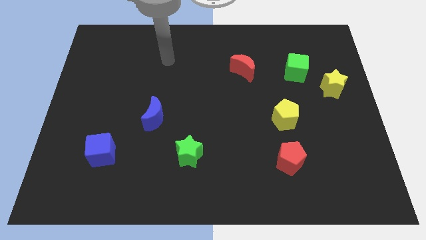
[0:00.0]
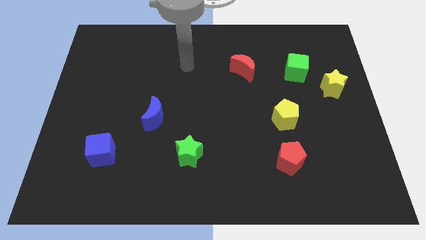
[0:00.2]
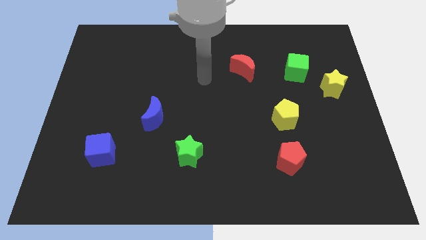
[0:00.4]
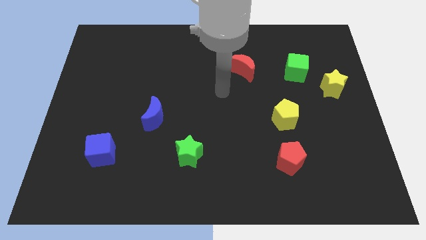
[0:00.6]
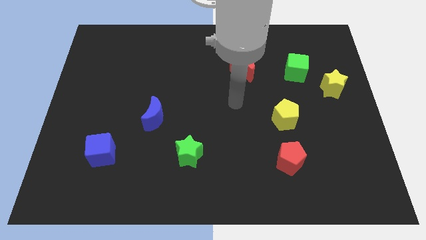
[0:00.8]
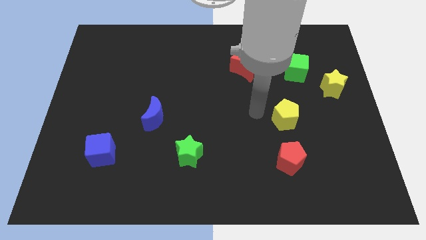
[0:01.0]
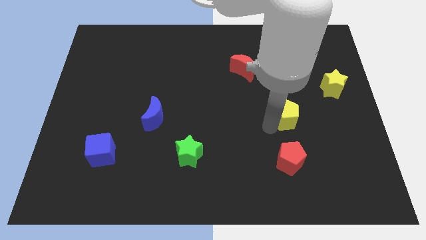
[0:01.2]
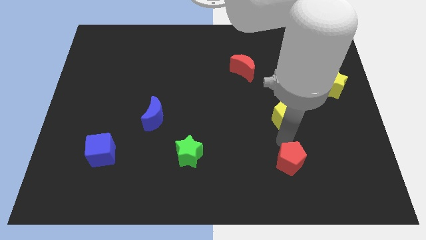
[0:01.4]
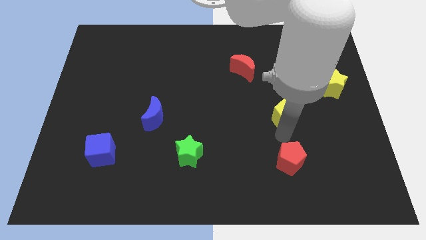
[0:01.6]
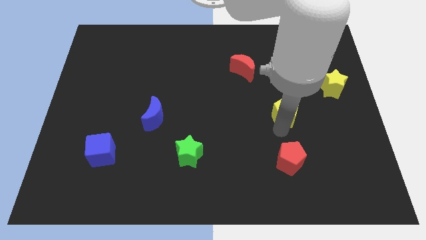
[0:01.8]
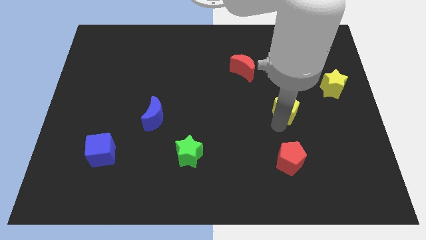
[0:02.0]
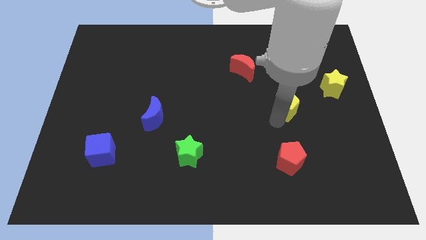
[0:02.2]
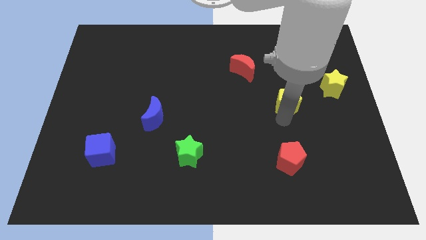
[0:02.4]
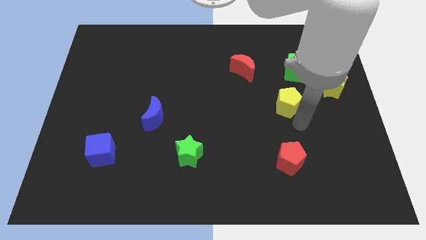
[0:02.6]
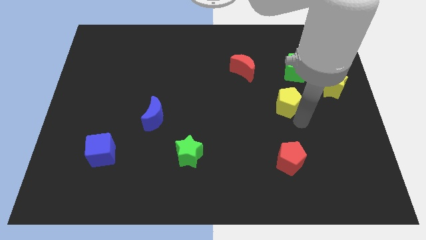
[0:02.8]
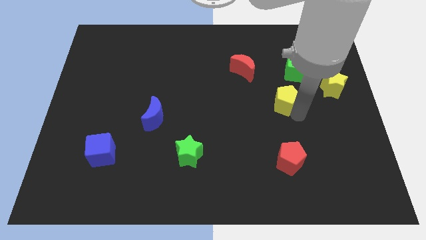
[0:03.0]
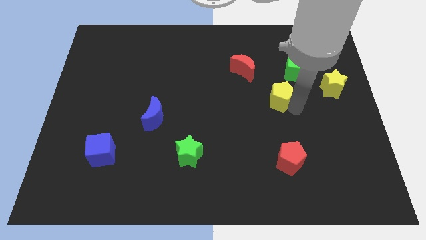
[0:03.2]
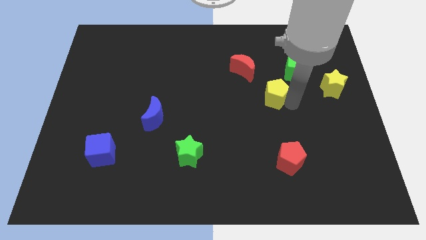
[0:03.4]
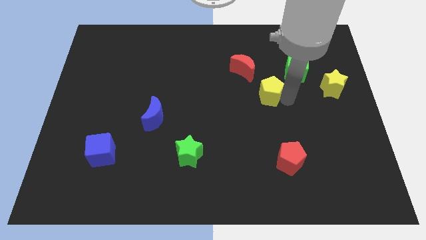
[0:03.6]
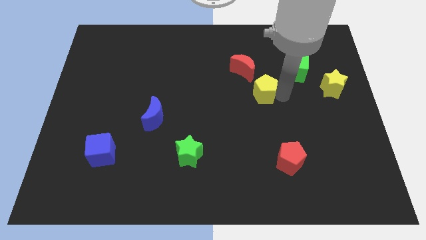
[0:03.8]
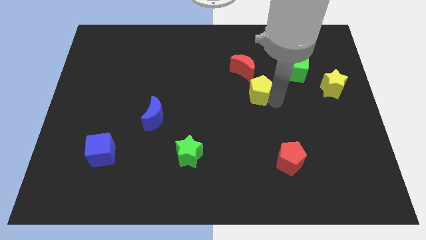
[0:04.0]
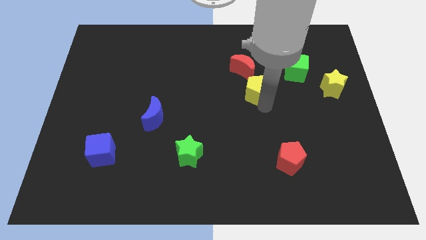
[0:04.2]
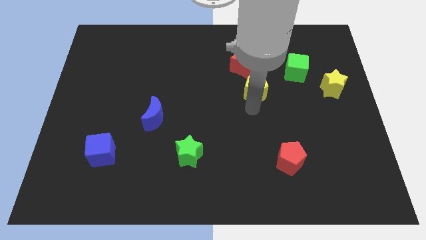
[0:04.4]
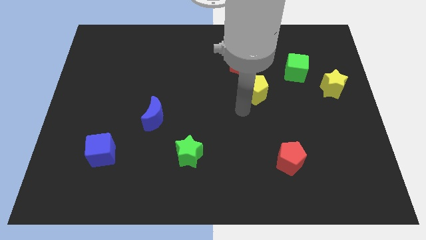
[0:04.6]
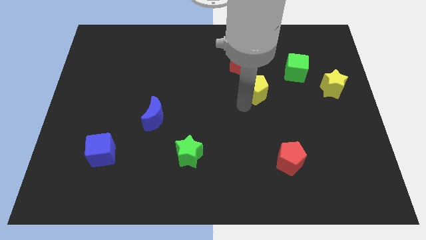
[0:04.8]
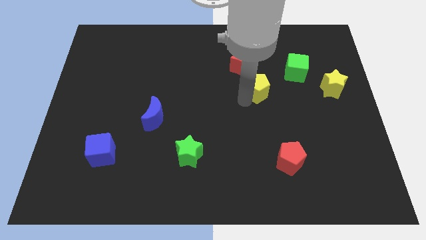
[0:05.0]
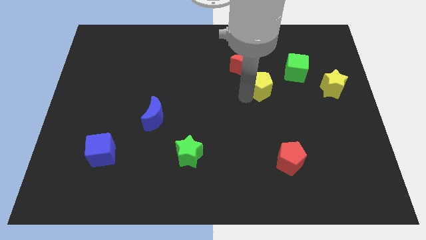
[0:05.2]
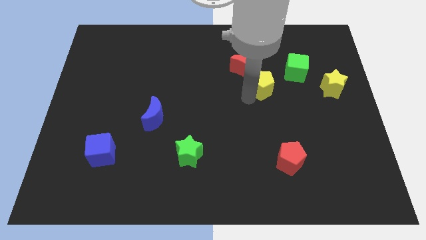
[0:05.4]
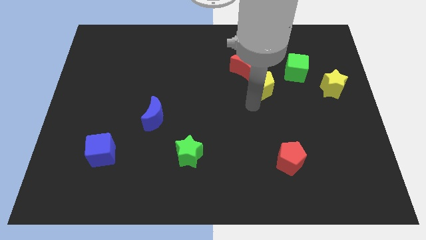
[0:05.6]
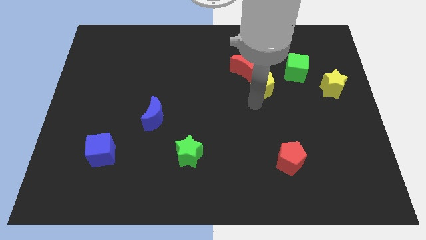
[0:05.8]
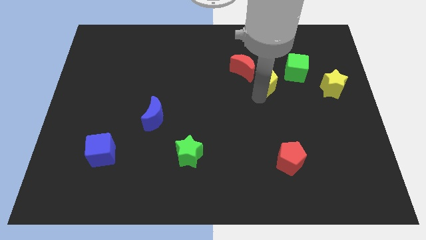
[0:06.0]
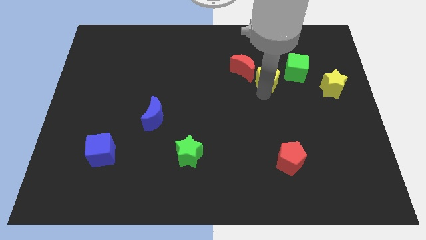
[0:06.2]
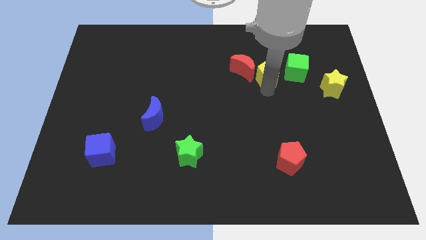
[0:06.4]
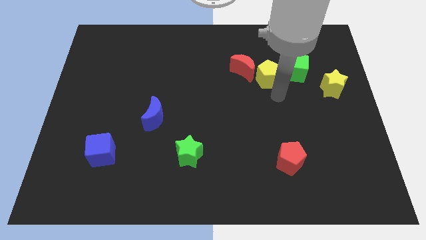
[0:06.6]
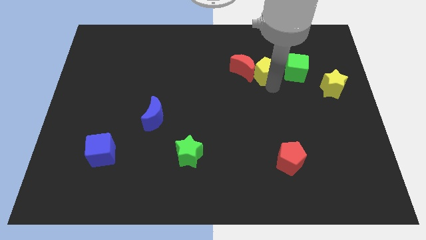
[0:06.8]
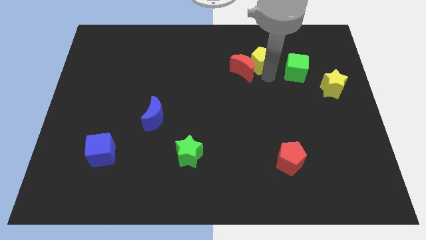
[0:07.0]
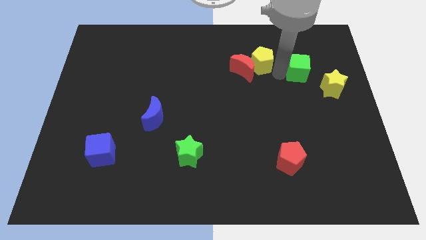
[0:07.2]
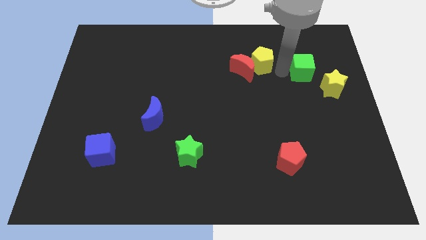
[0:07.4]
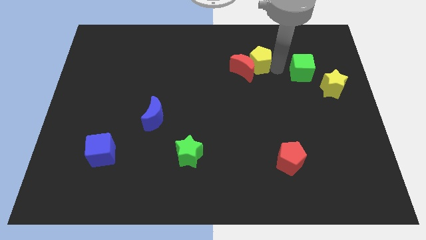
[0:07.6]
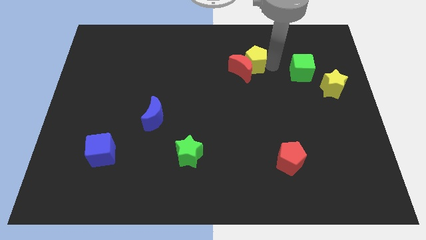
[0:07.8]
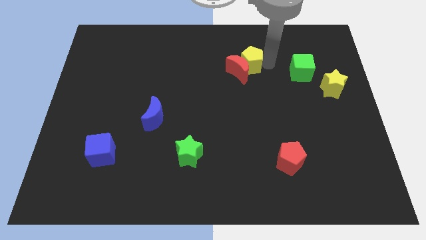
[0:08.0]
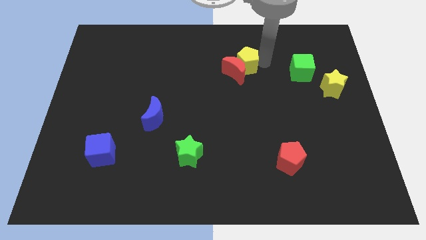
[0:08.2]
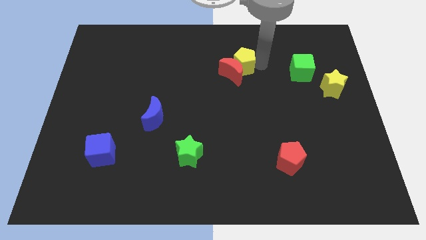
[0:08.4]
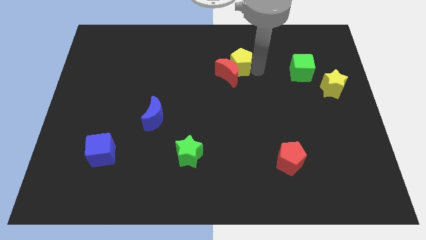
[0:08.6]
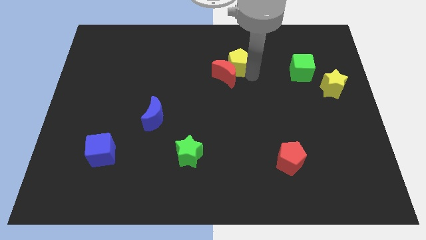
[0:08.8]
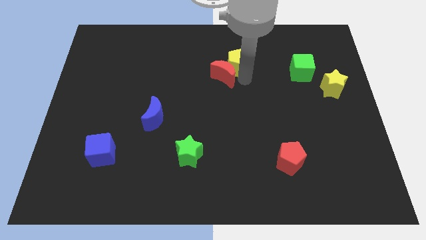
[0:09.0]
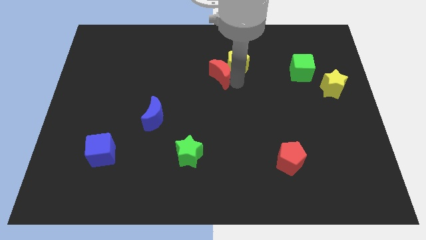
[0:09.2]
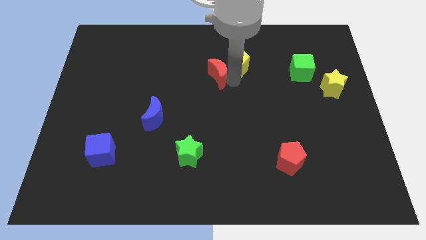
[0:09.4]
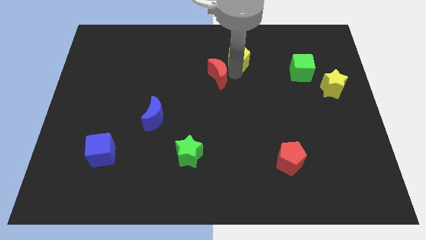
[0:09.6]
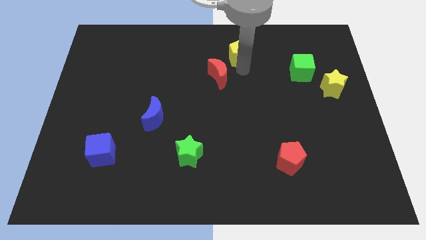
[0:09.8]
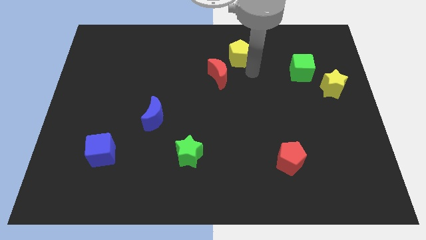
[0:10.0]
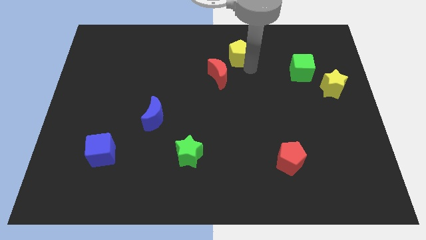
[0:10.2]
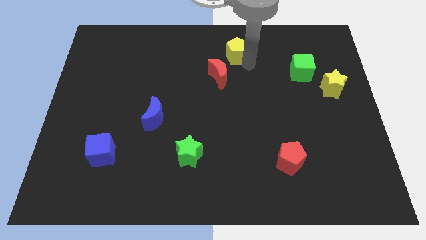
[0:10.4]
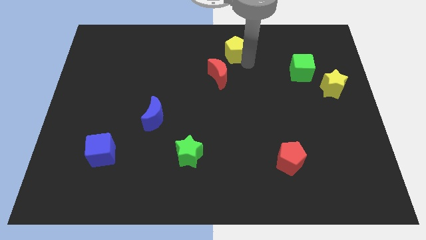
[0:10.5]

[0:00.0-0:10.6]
put the yellow pentagon to the top side

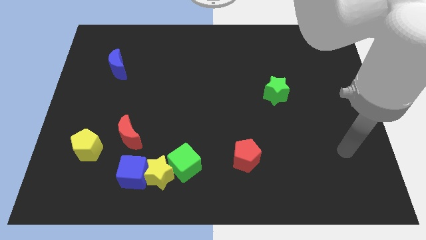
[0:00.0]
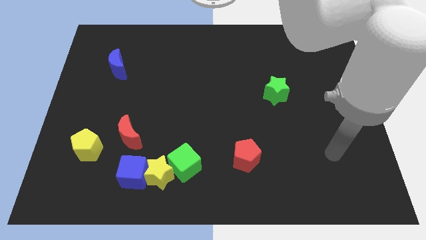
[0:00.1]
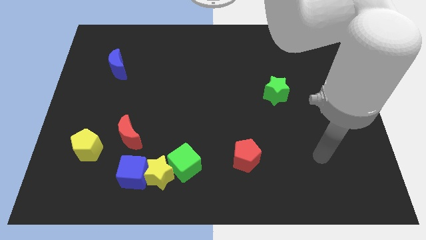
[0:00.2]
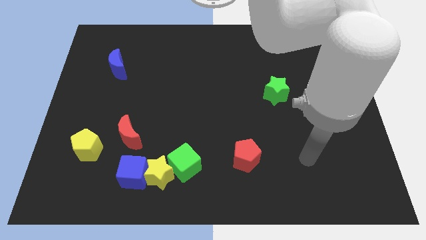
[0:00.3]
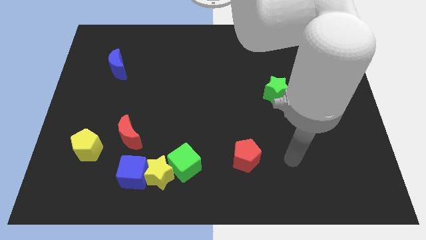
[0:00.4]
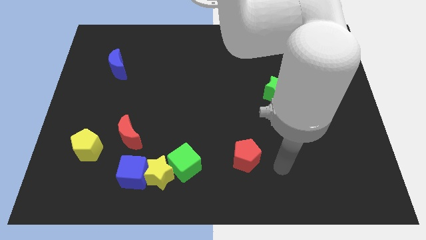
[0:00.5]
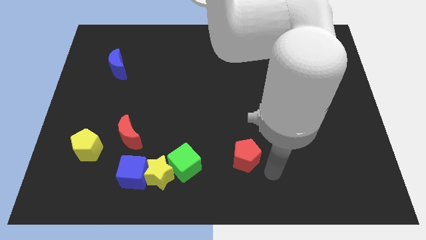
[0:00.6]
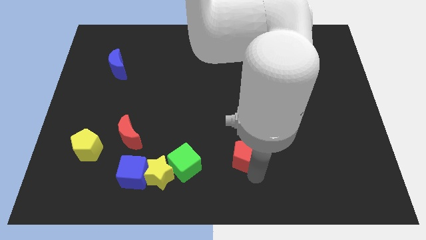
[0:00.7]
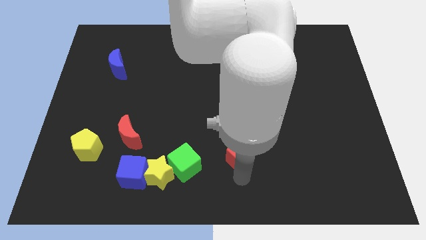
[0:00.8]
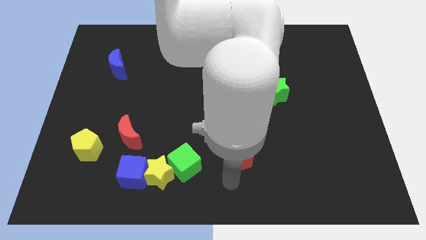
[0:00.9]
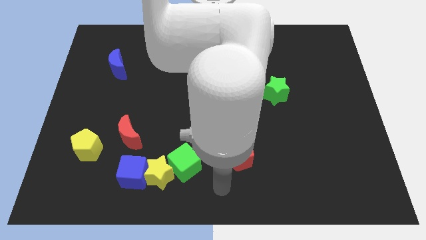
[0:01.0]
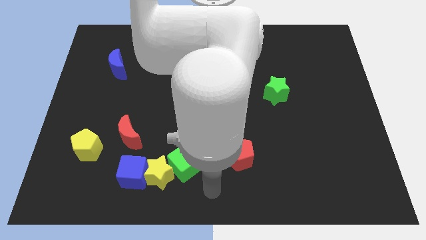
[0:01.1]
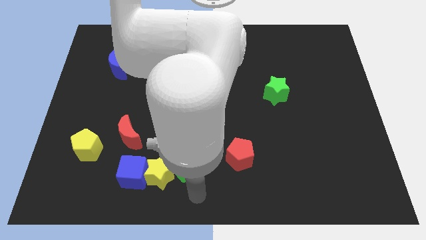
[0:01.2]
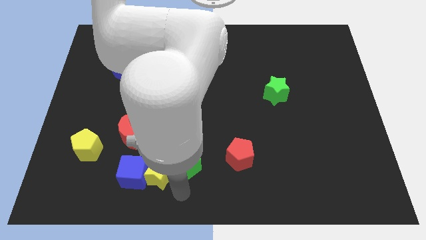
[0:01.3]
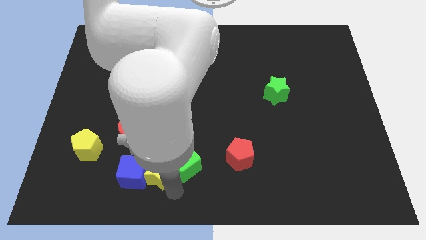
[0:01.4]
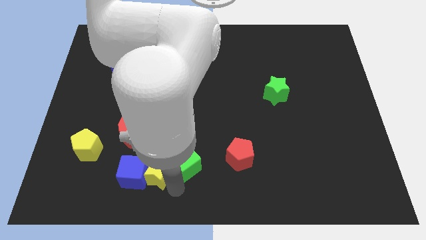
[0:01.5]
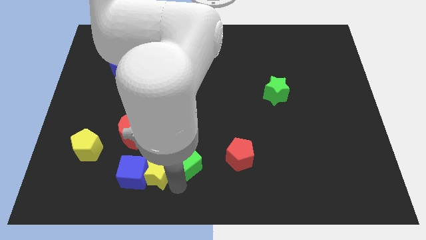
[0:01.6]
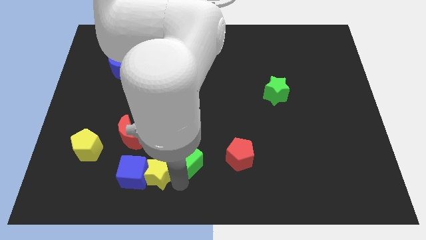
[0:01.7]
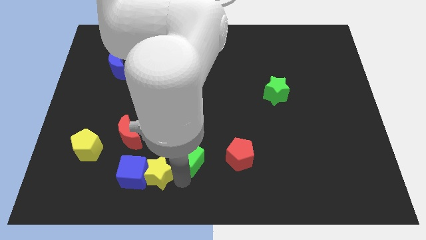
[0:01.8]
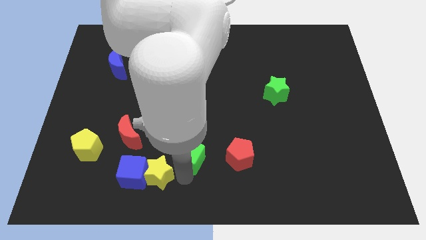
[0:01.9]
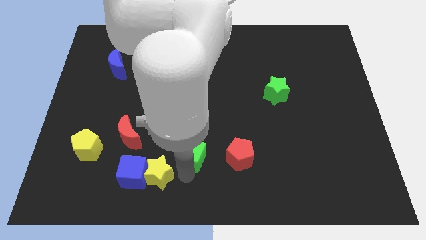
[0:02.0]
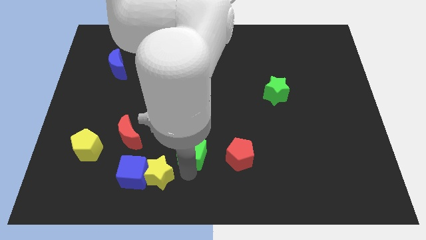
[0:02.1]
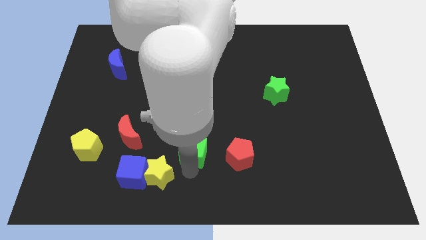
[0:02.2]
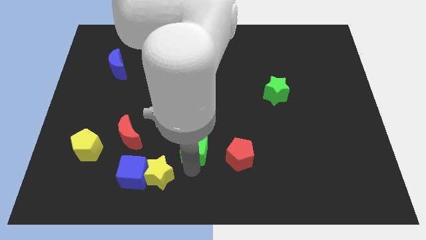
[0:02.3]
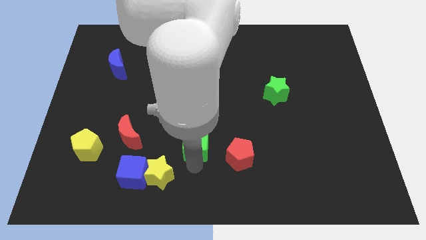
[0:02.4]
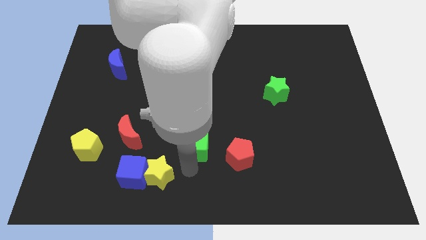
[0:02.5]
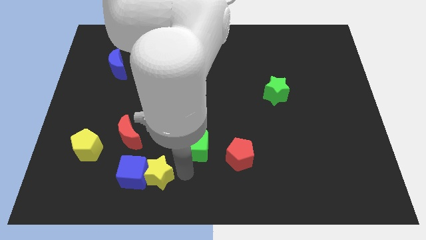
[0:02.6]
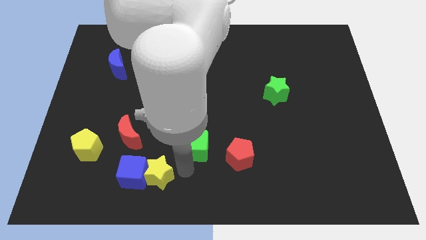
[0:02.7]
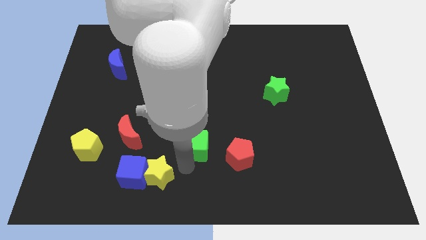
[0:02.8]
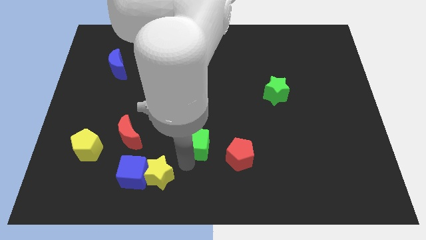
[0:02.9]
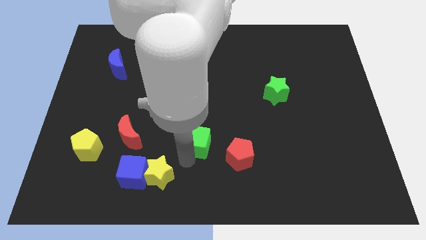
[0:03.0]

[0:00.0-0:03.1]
slide the green cube to the center
